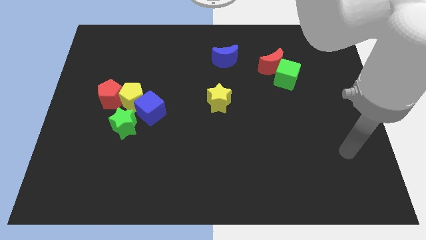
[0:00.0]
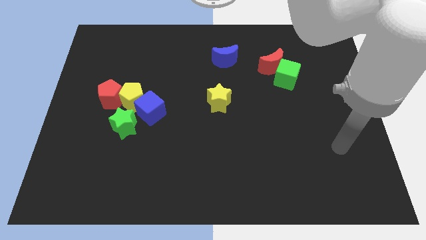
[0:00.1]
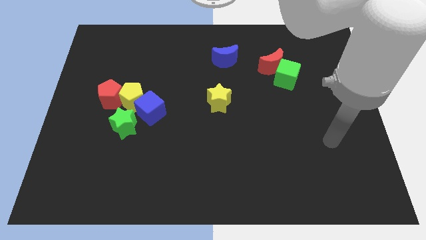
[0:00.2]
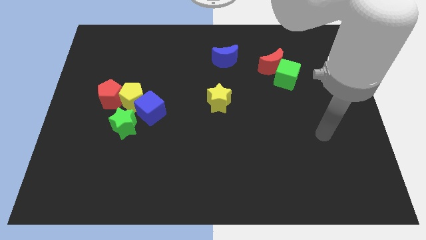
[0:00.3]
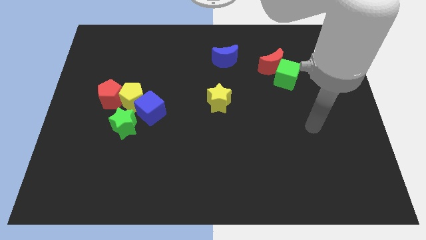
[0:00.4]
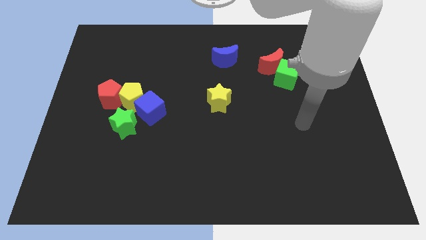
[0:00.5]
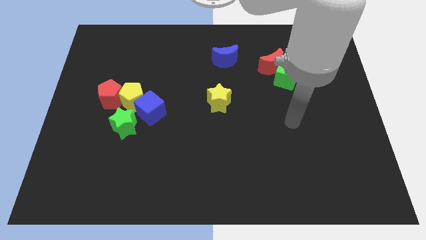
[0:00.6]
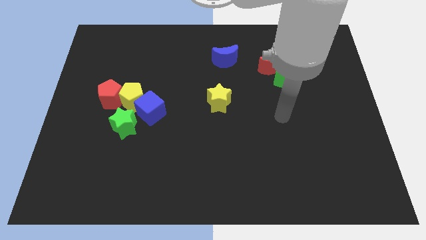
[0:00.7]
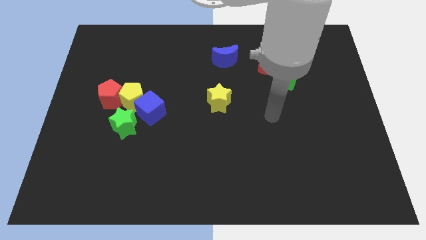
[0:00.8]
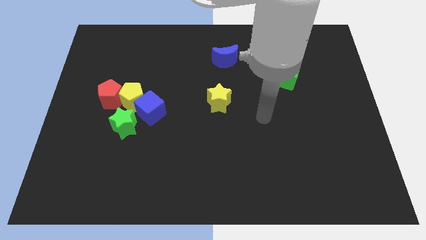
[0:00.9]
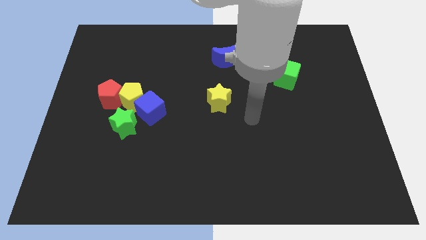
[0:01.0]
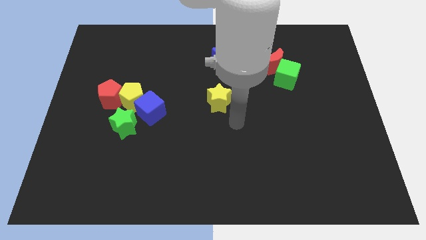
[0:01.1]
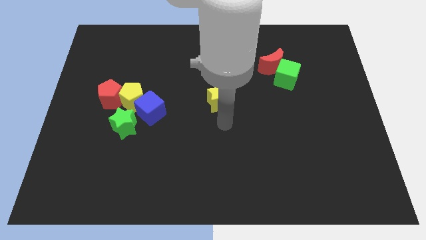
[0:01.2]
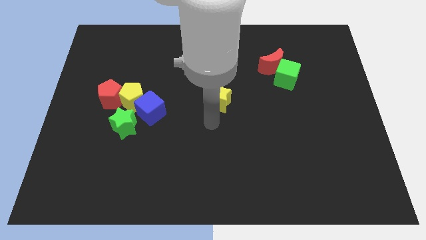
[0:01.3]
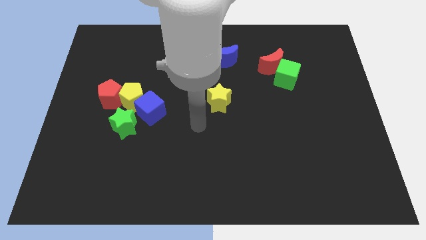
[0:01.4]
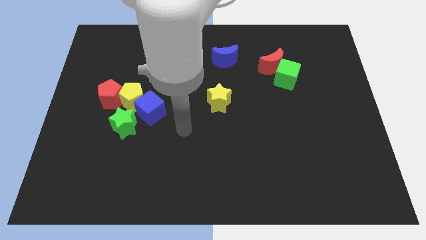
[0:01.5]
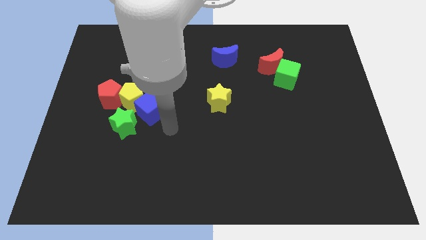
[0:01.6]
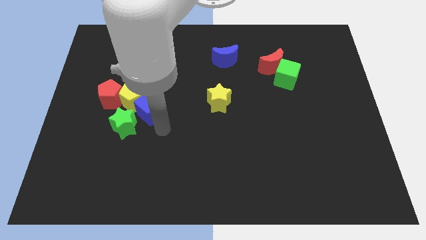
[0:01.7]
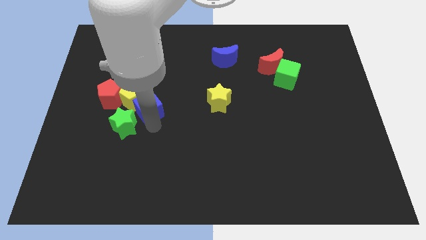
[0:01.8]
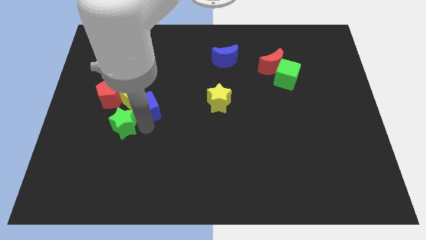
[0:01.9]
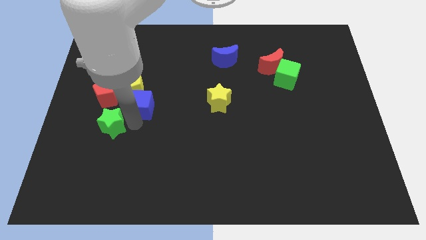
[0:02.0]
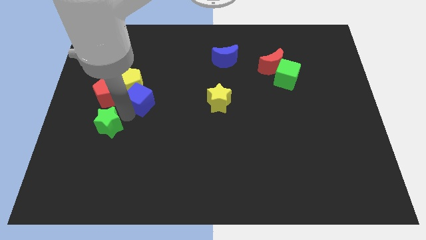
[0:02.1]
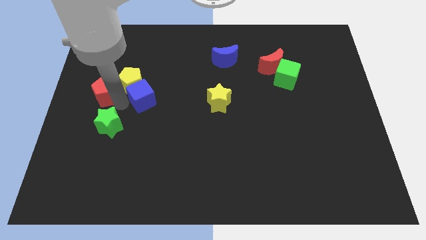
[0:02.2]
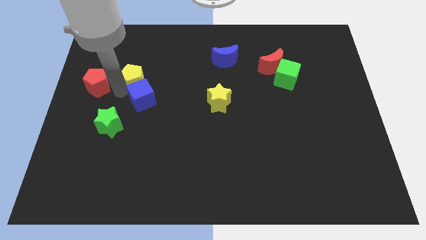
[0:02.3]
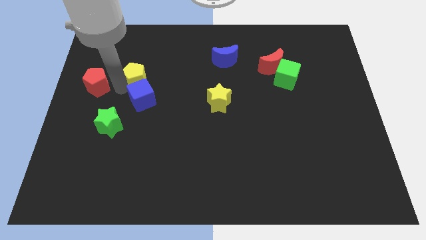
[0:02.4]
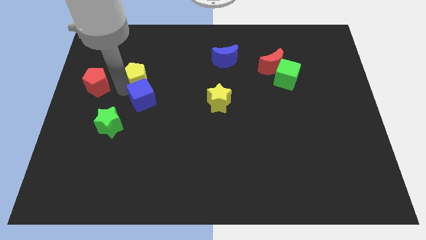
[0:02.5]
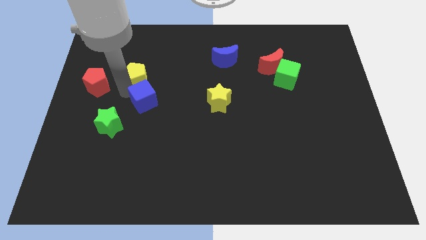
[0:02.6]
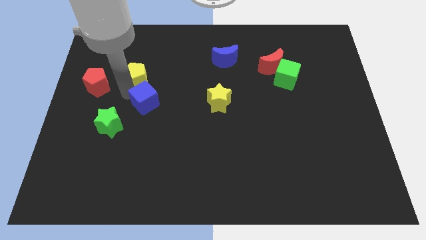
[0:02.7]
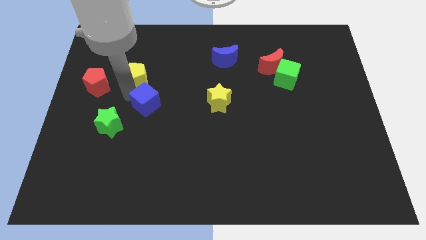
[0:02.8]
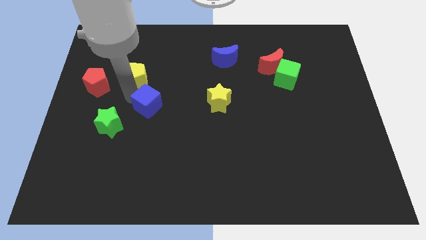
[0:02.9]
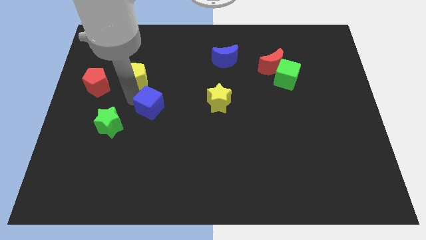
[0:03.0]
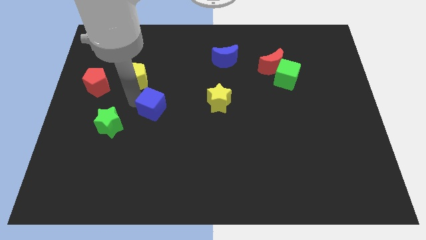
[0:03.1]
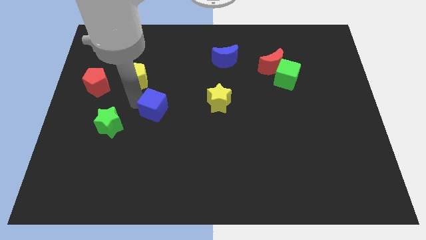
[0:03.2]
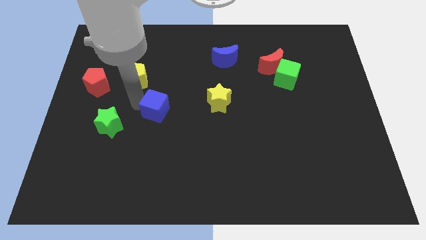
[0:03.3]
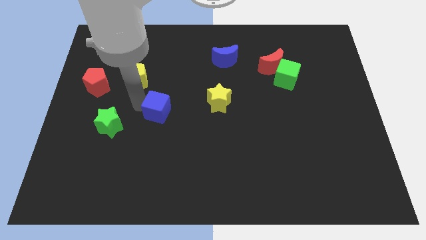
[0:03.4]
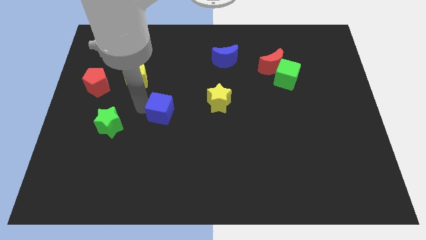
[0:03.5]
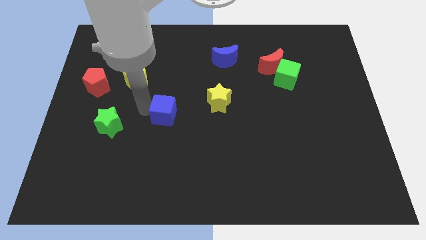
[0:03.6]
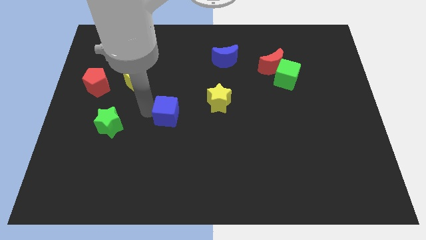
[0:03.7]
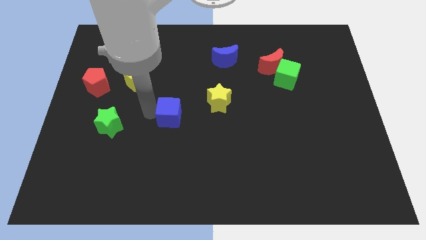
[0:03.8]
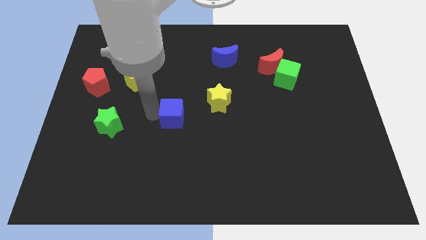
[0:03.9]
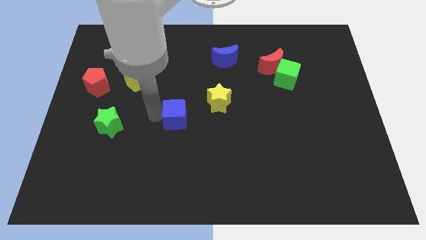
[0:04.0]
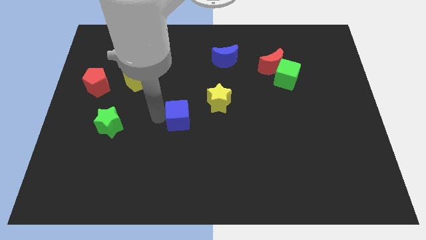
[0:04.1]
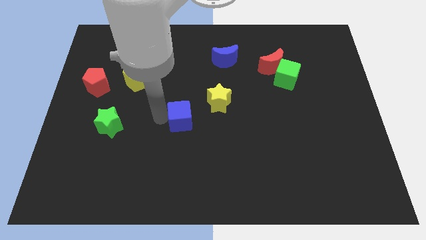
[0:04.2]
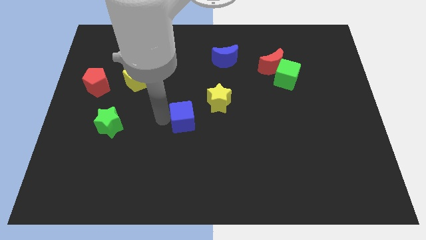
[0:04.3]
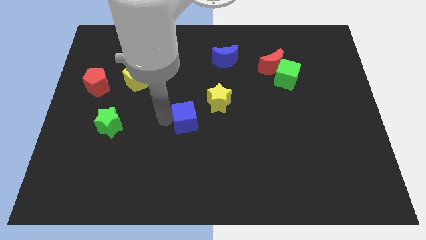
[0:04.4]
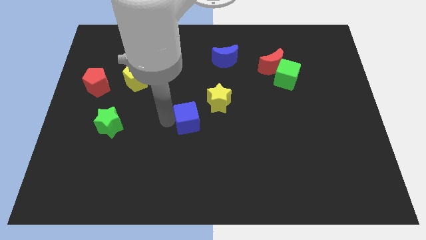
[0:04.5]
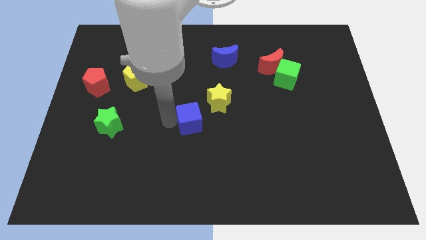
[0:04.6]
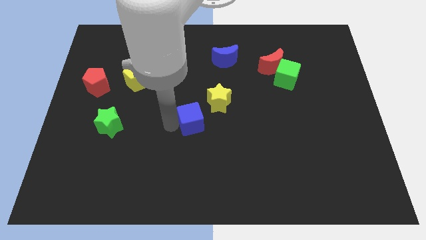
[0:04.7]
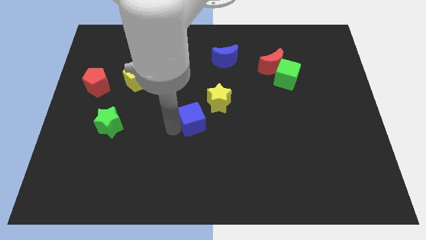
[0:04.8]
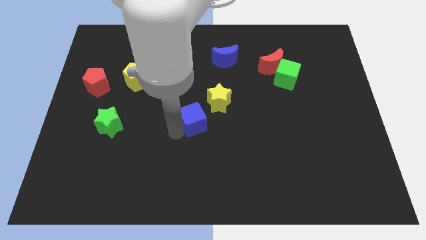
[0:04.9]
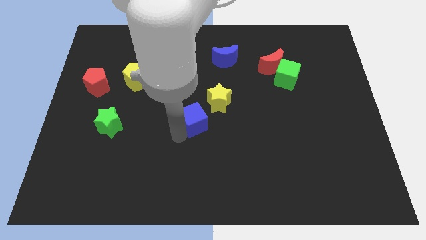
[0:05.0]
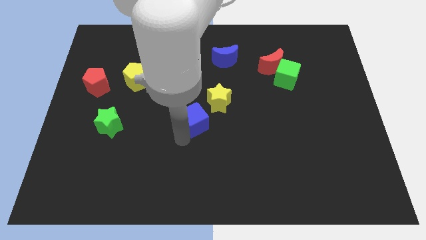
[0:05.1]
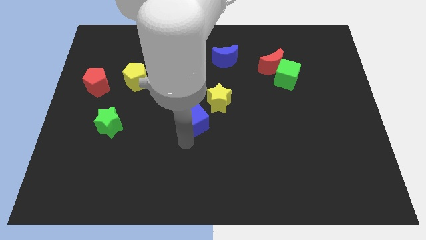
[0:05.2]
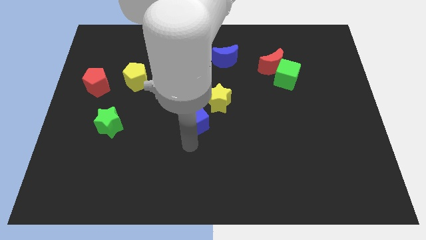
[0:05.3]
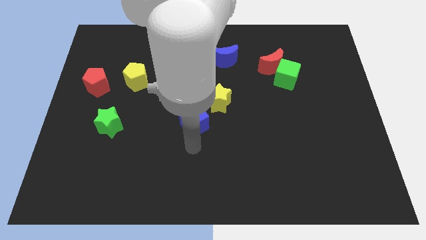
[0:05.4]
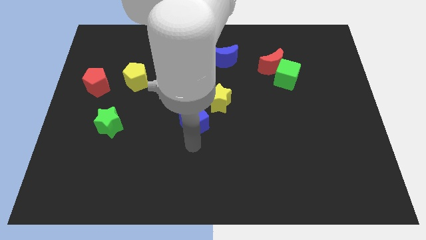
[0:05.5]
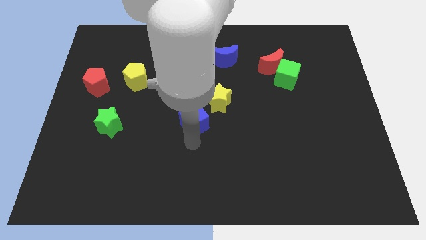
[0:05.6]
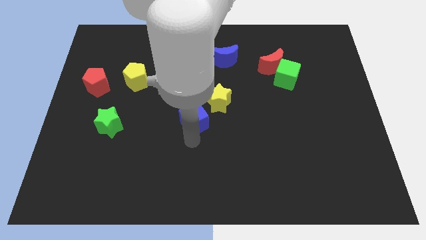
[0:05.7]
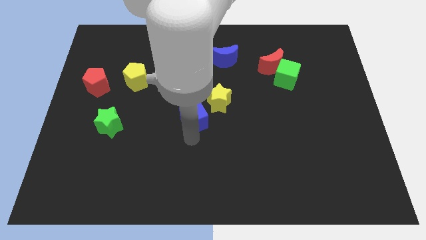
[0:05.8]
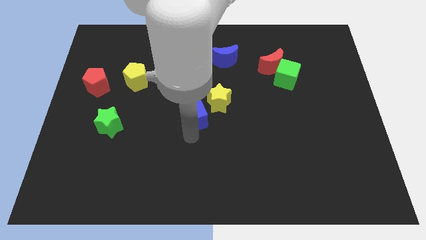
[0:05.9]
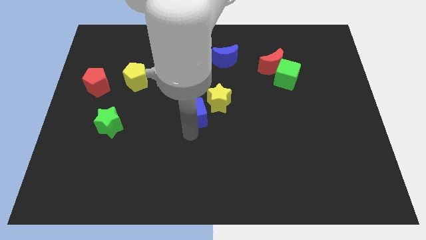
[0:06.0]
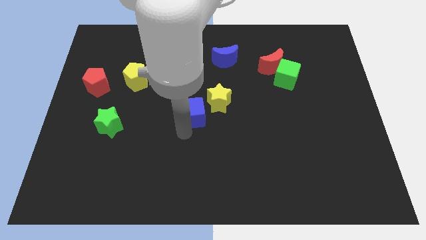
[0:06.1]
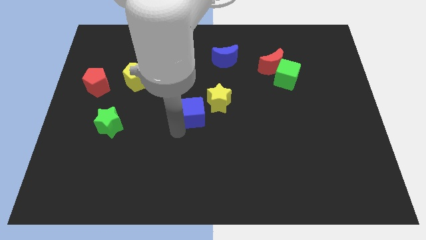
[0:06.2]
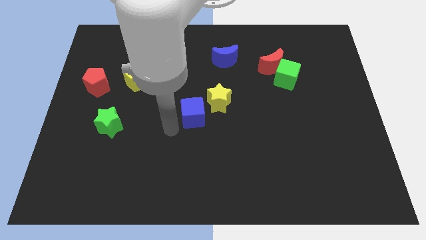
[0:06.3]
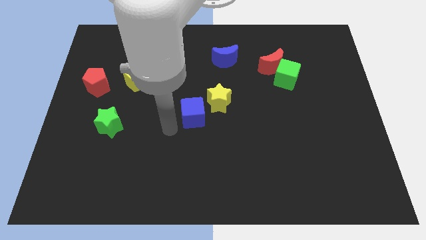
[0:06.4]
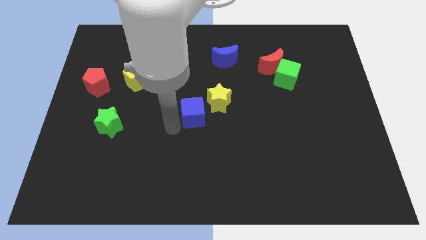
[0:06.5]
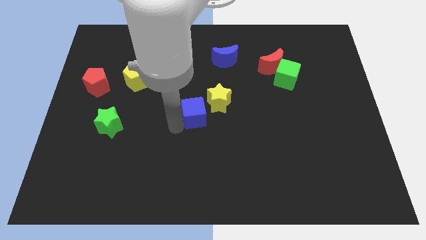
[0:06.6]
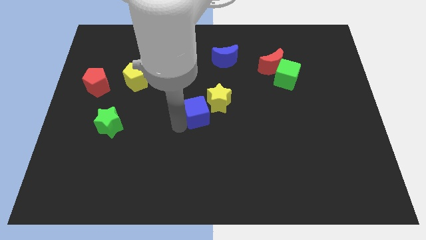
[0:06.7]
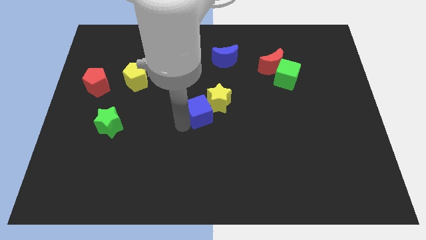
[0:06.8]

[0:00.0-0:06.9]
push the blue cube close to the yellow star
